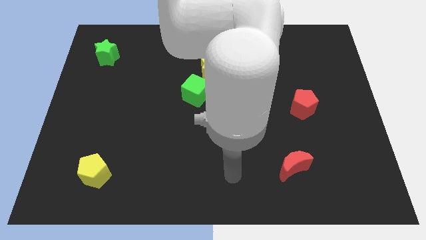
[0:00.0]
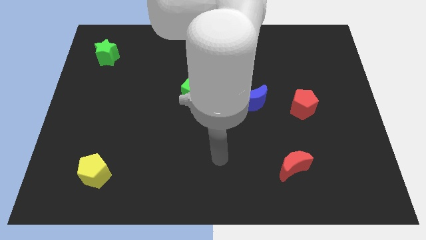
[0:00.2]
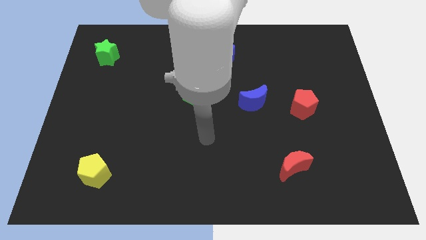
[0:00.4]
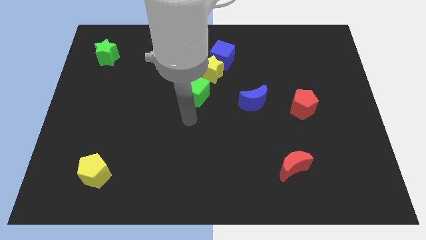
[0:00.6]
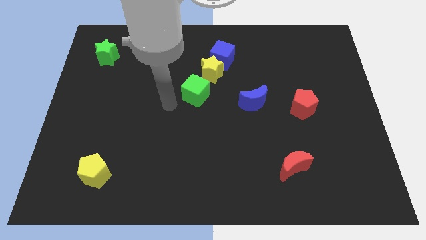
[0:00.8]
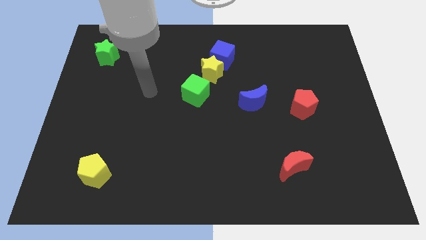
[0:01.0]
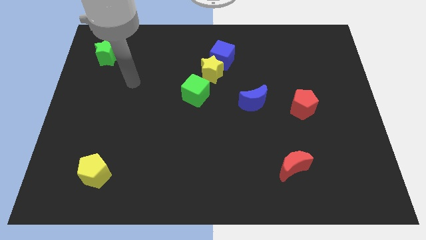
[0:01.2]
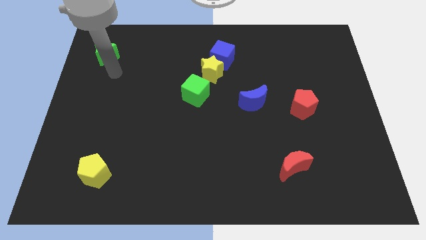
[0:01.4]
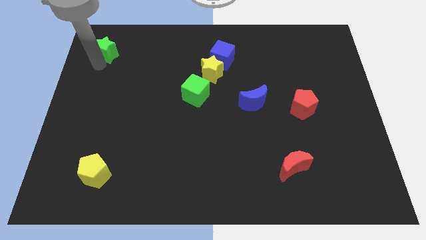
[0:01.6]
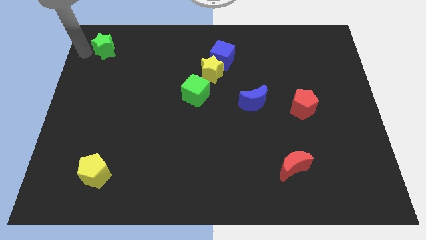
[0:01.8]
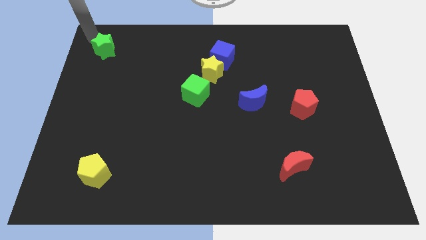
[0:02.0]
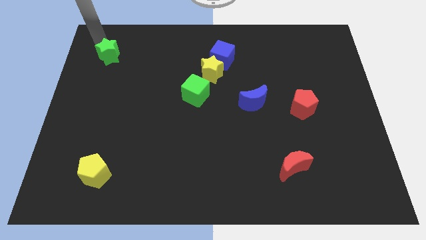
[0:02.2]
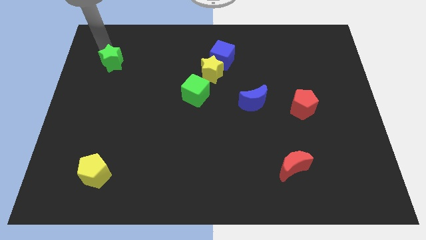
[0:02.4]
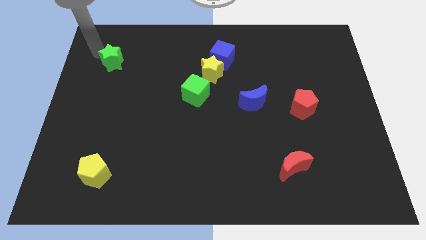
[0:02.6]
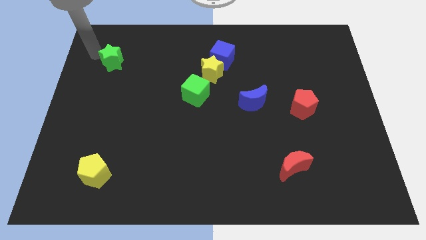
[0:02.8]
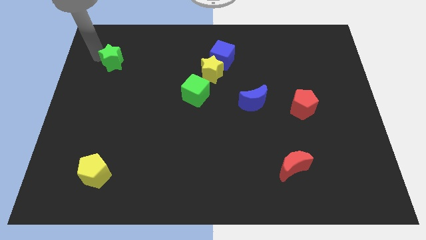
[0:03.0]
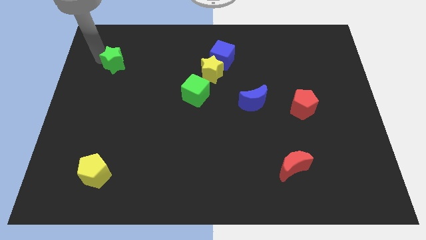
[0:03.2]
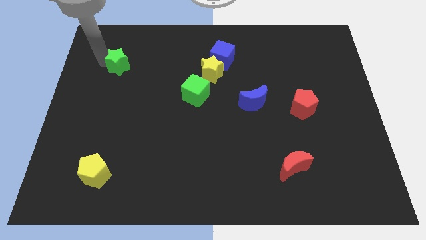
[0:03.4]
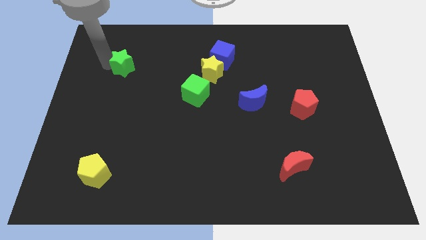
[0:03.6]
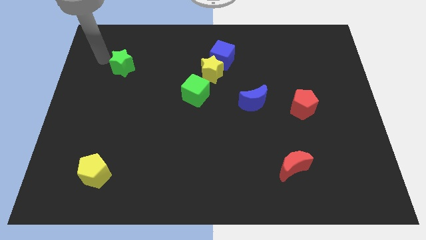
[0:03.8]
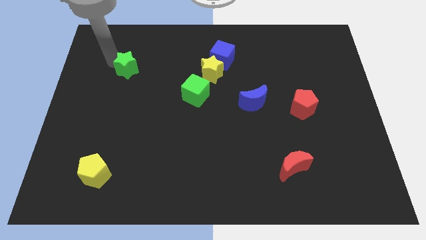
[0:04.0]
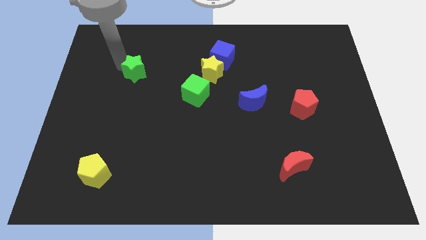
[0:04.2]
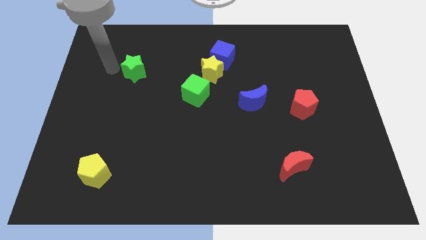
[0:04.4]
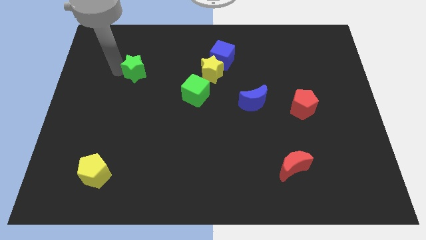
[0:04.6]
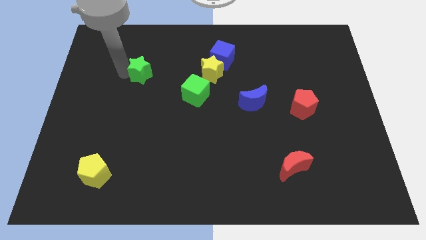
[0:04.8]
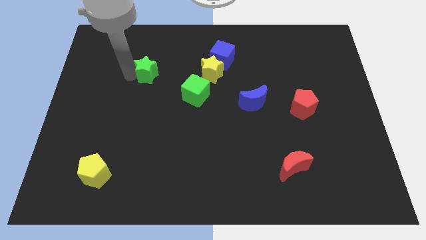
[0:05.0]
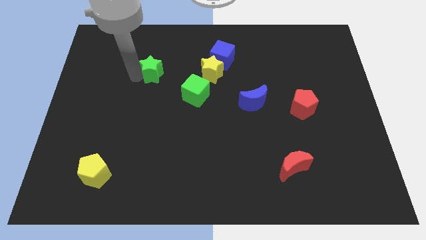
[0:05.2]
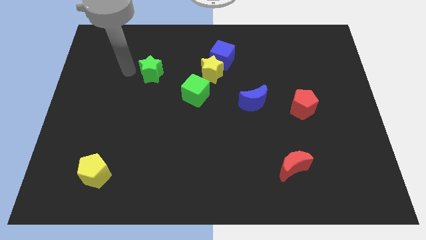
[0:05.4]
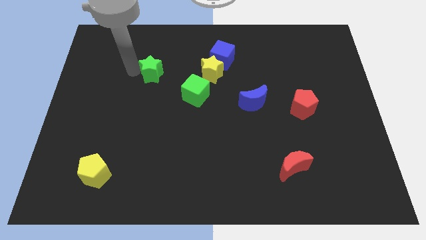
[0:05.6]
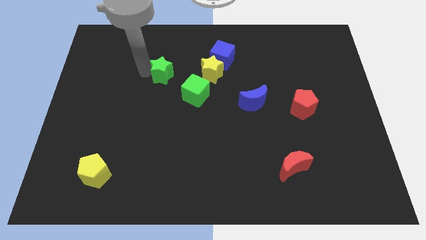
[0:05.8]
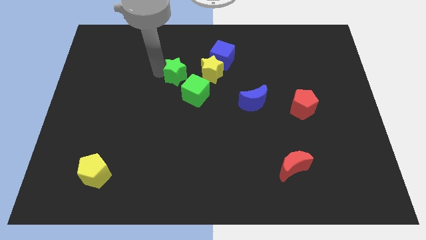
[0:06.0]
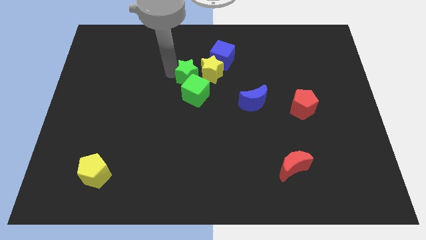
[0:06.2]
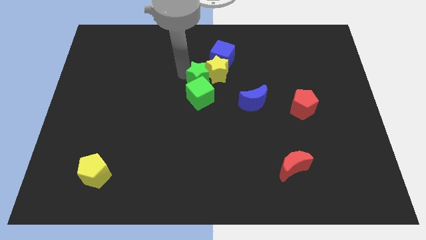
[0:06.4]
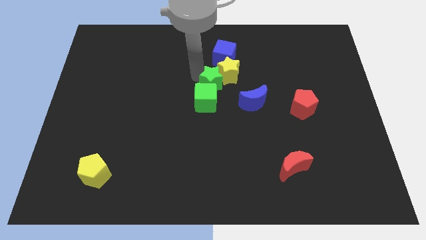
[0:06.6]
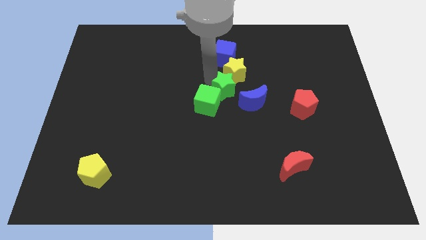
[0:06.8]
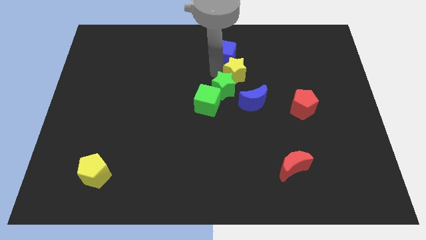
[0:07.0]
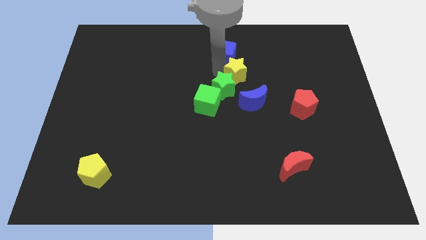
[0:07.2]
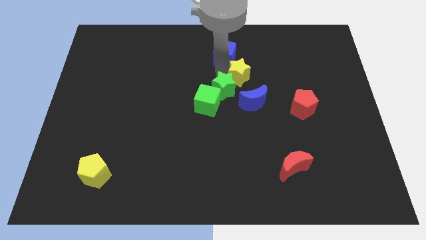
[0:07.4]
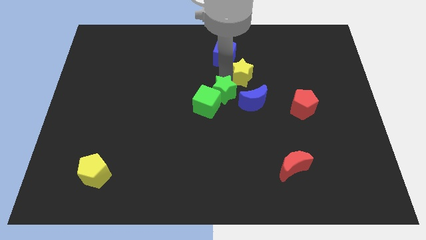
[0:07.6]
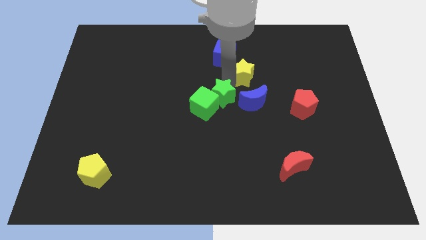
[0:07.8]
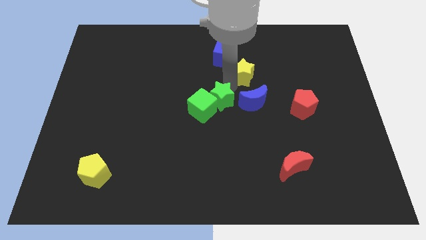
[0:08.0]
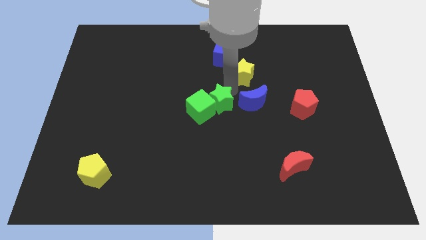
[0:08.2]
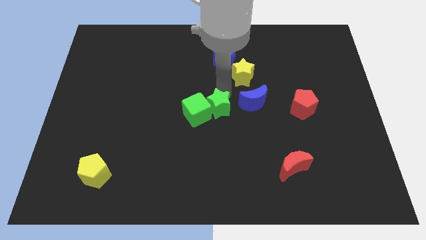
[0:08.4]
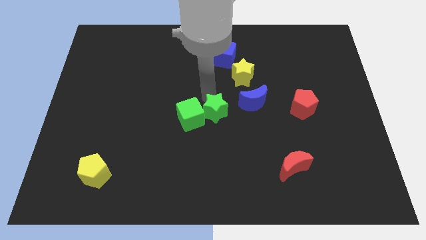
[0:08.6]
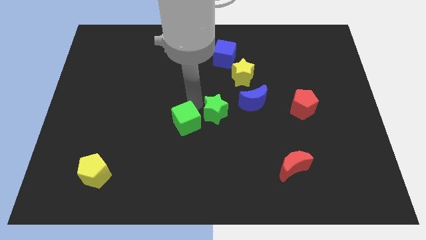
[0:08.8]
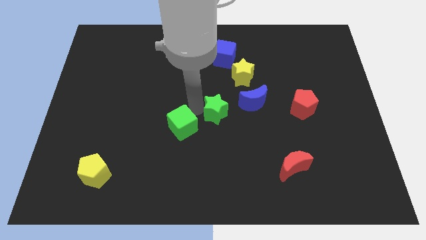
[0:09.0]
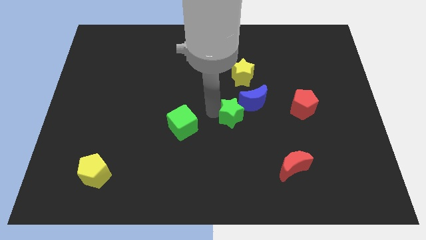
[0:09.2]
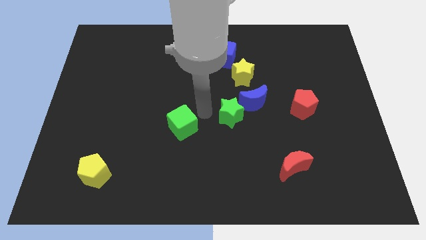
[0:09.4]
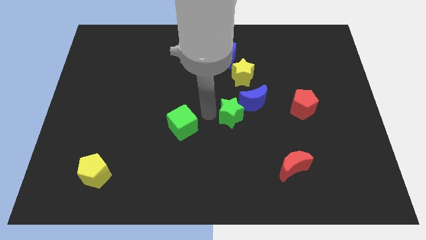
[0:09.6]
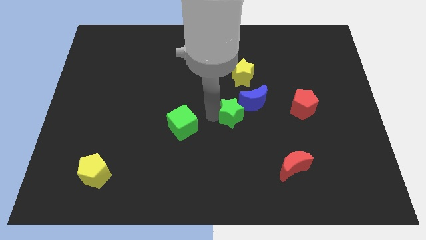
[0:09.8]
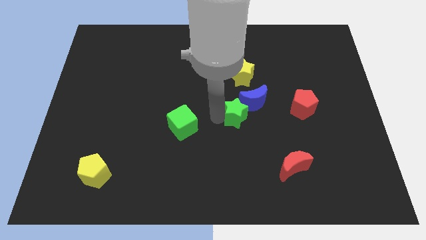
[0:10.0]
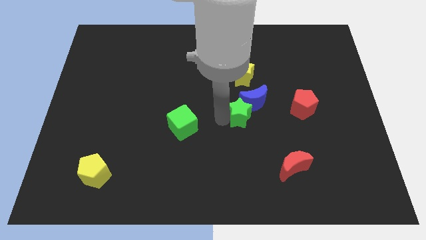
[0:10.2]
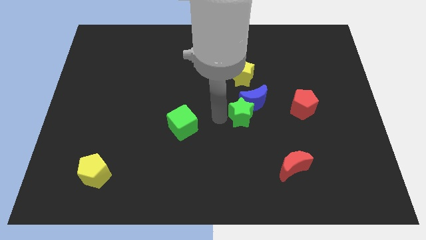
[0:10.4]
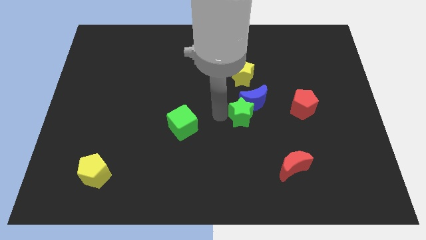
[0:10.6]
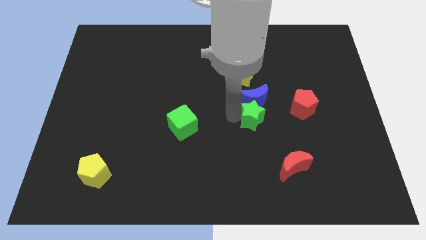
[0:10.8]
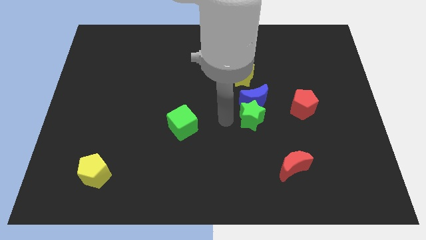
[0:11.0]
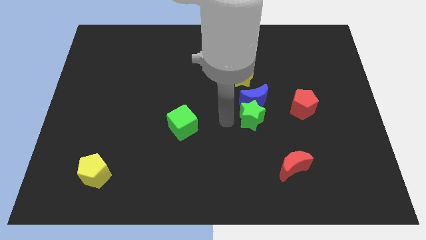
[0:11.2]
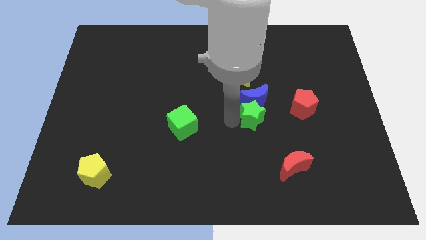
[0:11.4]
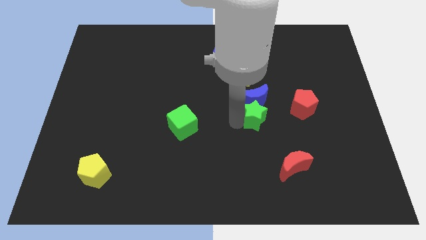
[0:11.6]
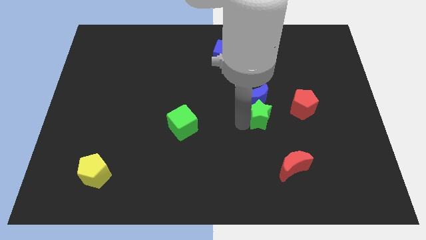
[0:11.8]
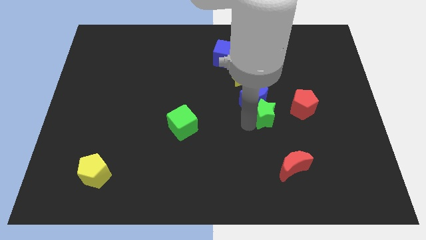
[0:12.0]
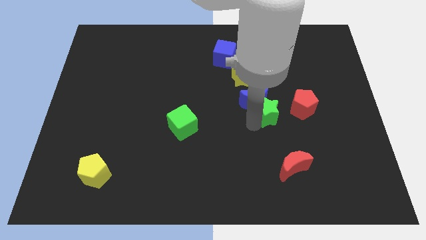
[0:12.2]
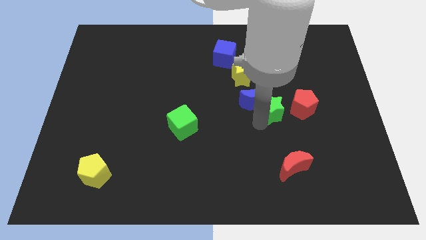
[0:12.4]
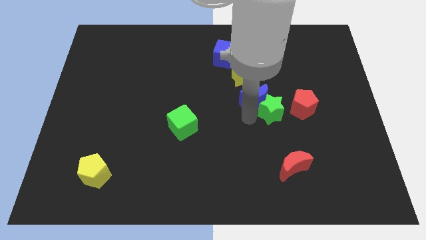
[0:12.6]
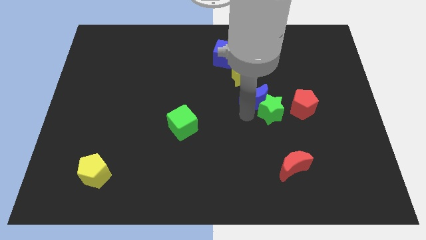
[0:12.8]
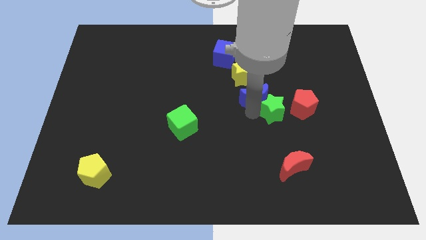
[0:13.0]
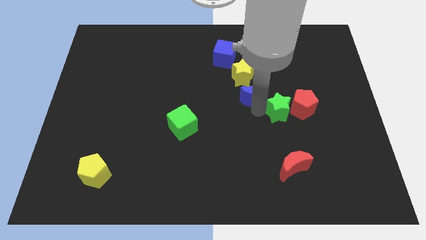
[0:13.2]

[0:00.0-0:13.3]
put the green star close to the red pentagon
